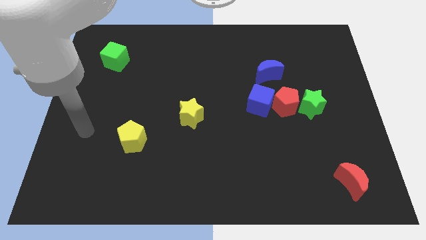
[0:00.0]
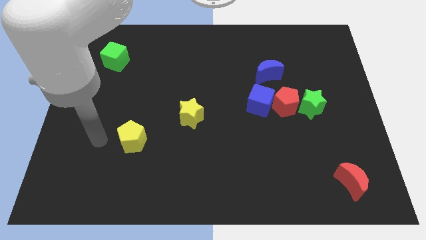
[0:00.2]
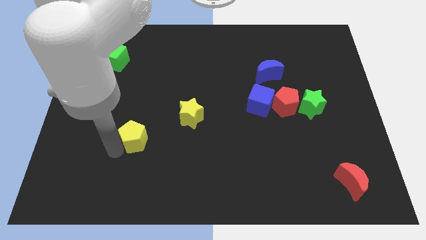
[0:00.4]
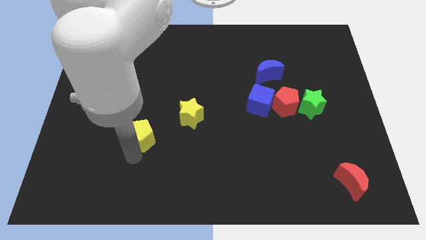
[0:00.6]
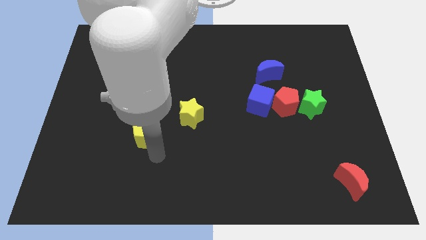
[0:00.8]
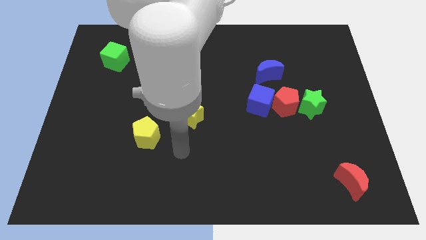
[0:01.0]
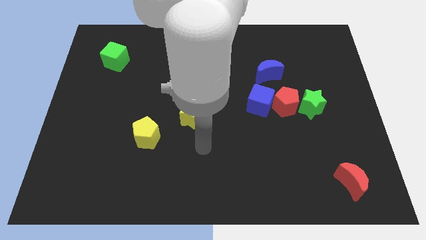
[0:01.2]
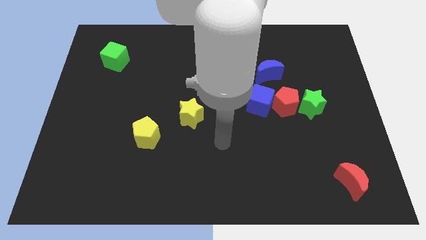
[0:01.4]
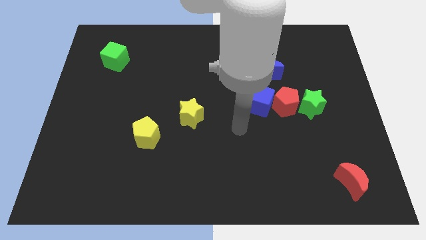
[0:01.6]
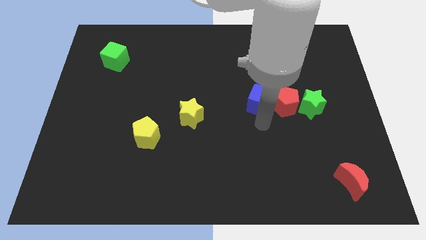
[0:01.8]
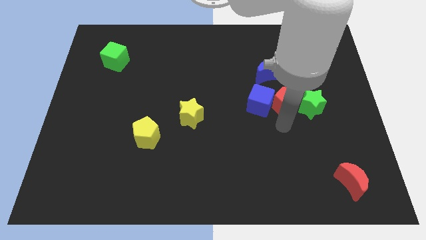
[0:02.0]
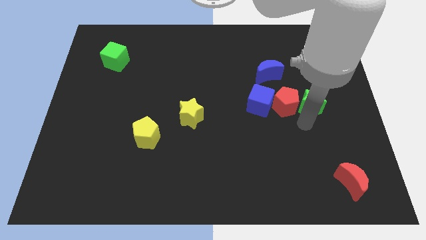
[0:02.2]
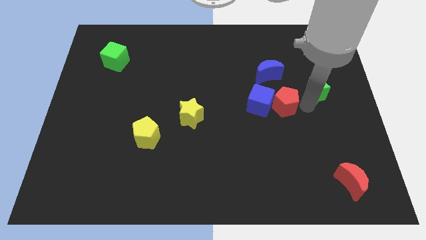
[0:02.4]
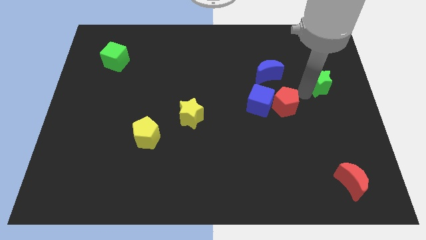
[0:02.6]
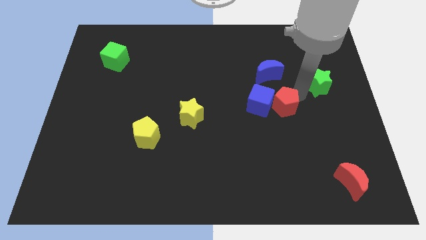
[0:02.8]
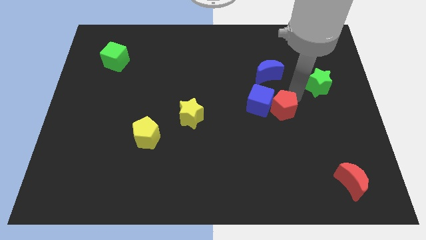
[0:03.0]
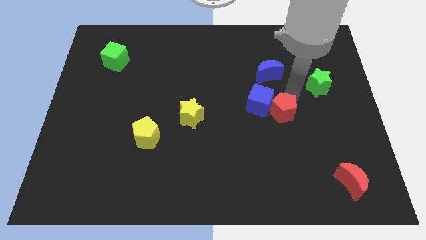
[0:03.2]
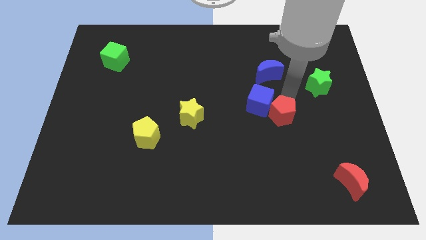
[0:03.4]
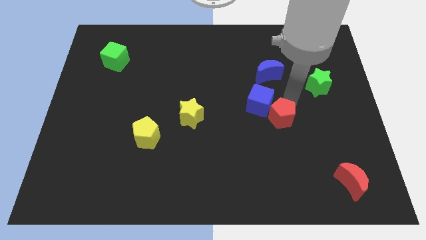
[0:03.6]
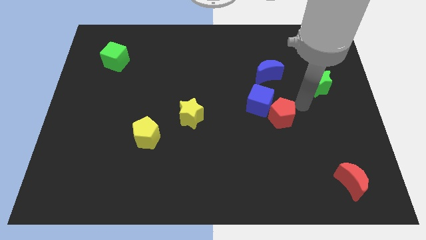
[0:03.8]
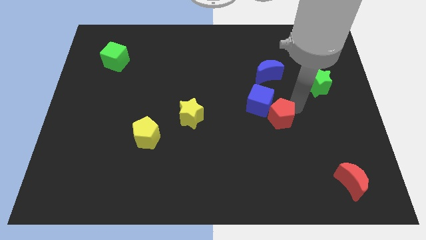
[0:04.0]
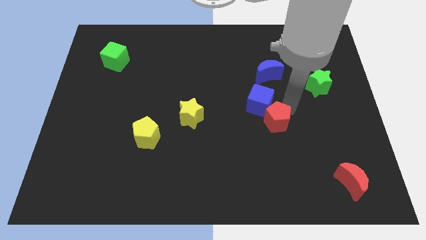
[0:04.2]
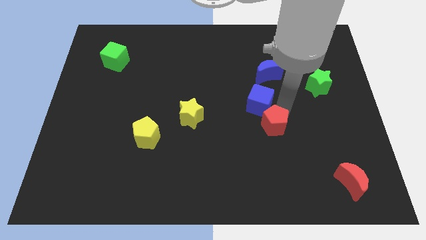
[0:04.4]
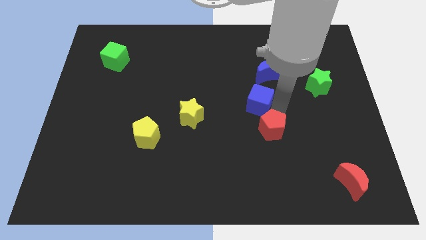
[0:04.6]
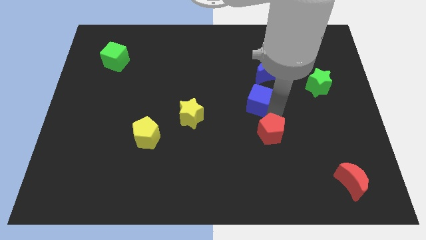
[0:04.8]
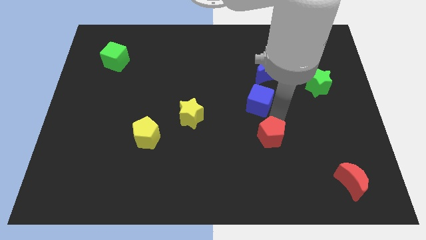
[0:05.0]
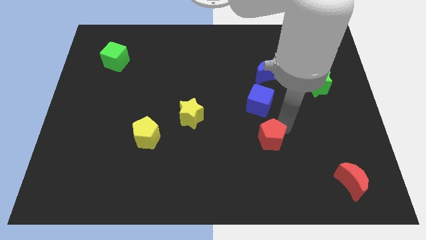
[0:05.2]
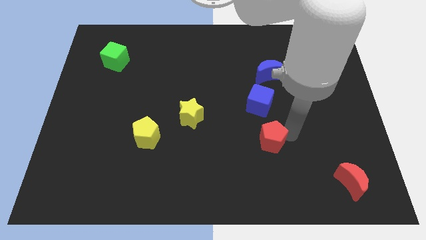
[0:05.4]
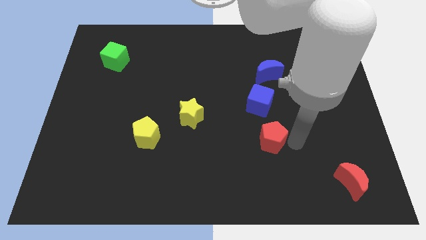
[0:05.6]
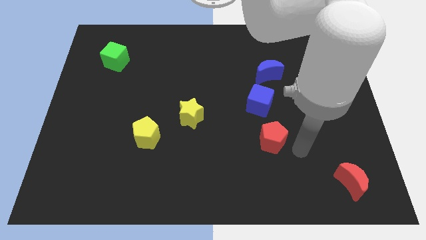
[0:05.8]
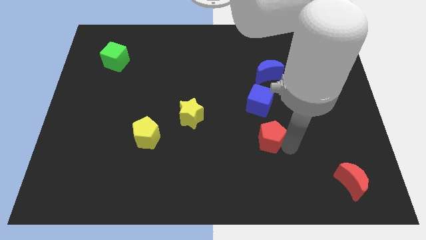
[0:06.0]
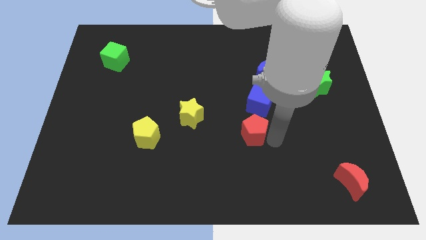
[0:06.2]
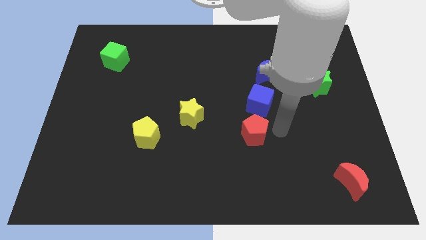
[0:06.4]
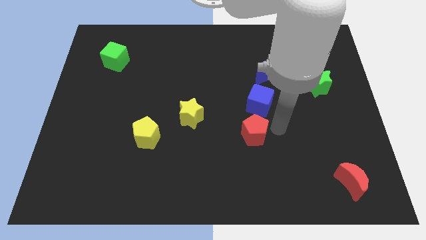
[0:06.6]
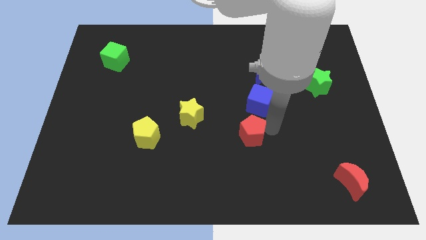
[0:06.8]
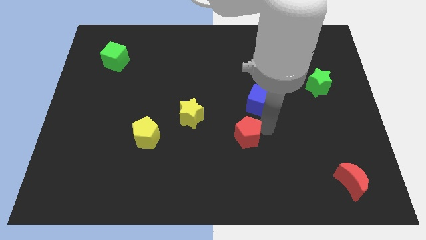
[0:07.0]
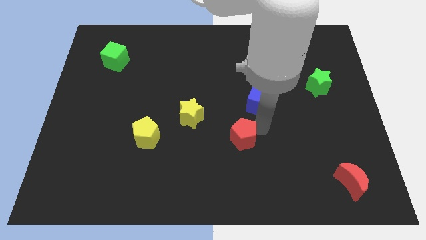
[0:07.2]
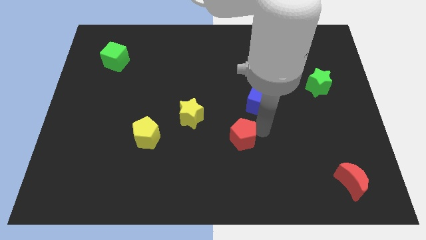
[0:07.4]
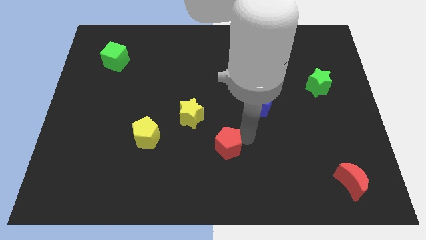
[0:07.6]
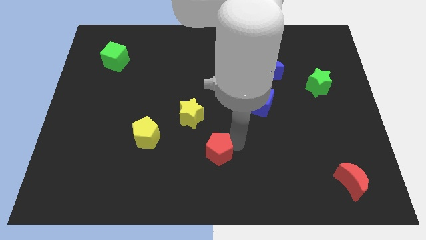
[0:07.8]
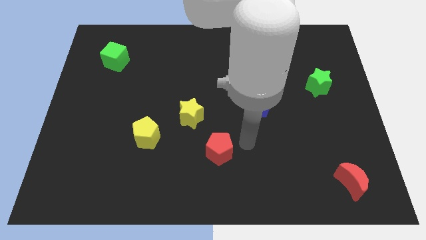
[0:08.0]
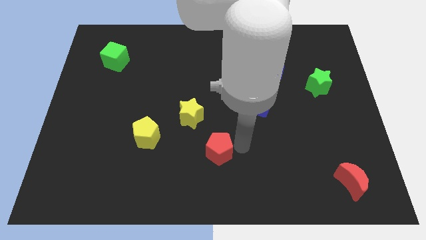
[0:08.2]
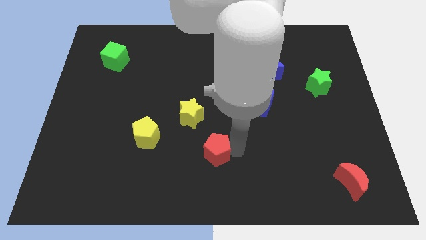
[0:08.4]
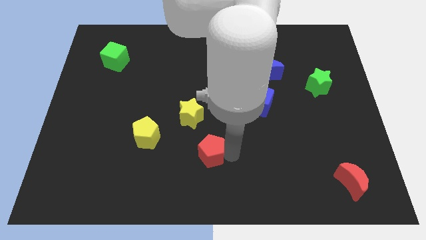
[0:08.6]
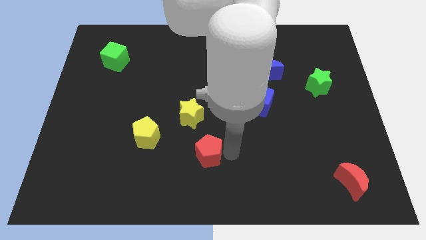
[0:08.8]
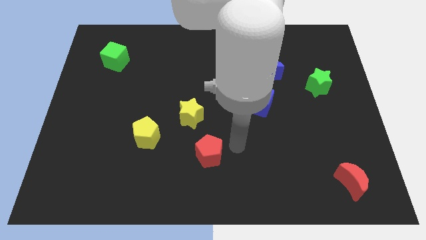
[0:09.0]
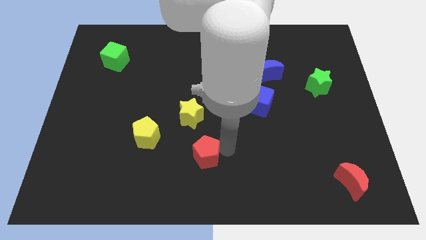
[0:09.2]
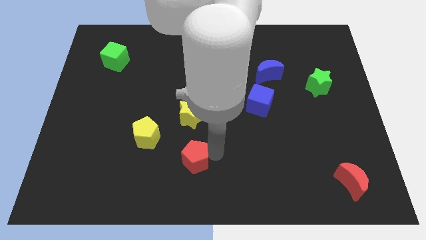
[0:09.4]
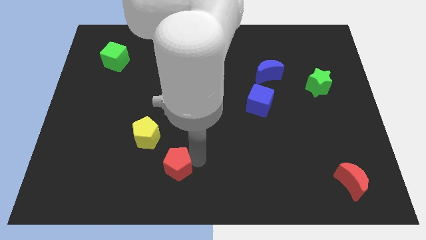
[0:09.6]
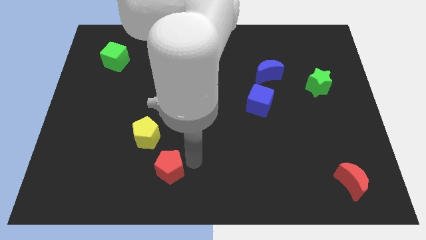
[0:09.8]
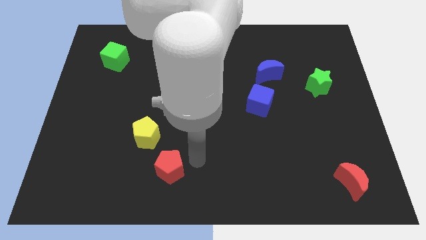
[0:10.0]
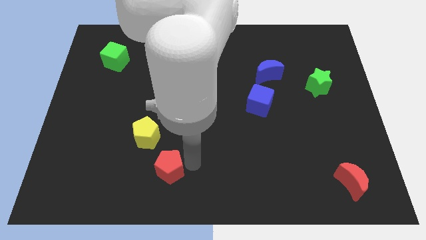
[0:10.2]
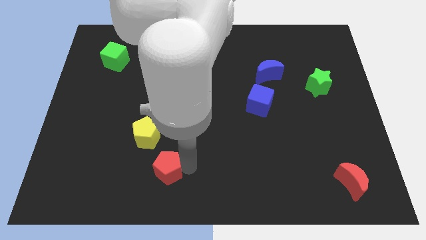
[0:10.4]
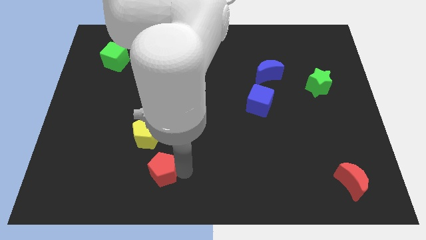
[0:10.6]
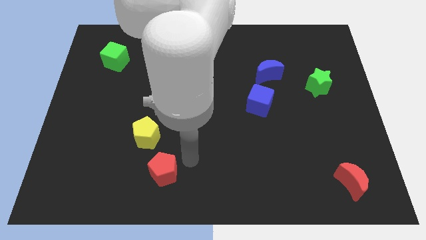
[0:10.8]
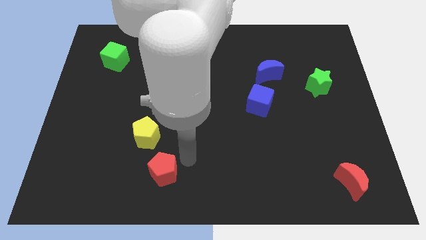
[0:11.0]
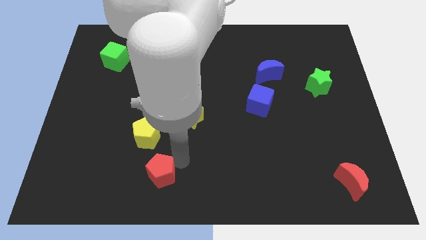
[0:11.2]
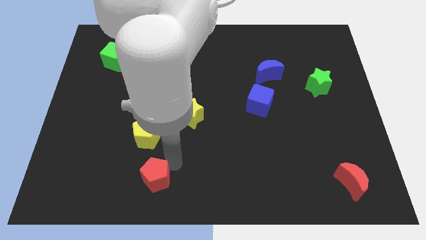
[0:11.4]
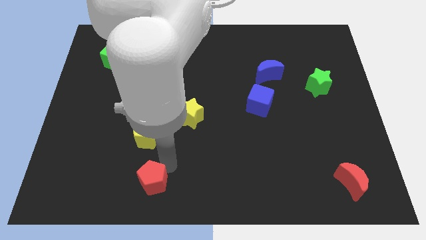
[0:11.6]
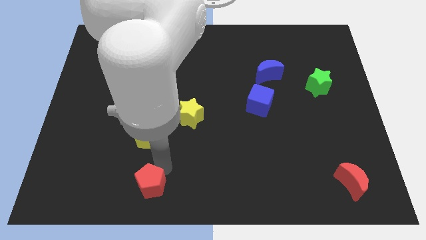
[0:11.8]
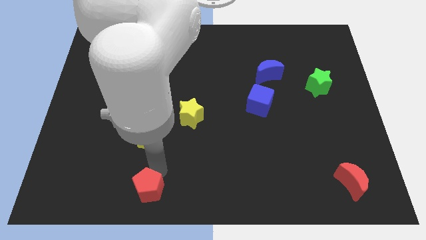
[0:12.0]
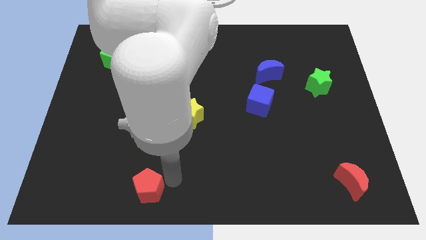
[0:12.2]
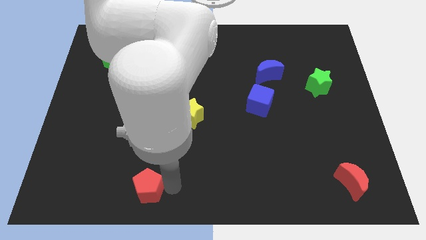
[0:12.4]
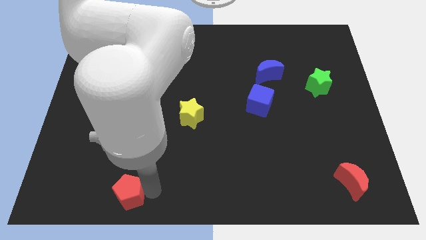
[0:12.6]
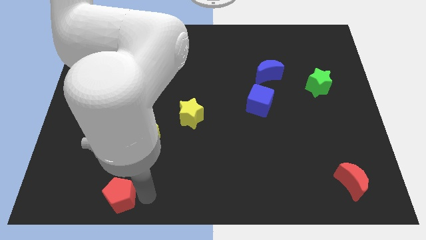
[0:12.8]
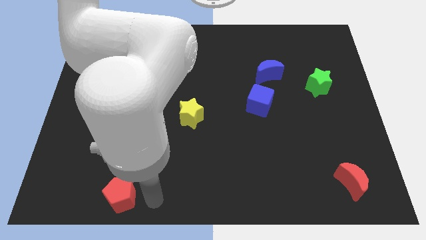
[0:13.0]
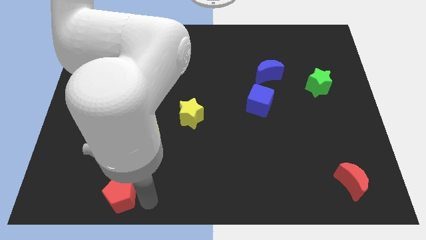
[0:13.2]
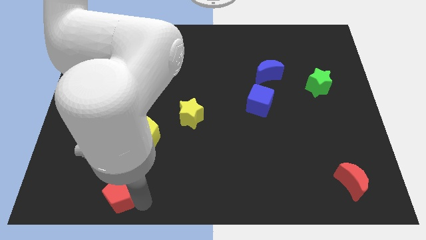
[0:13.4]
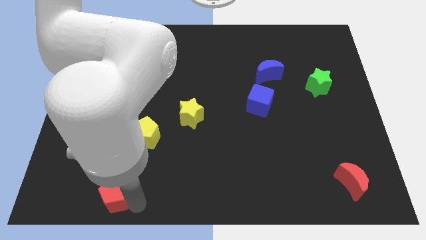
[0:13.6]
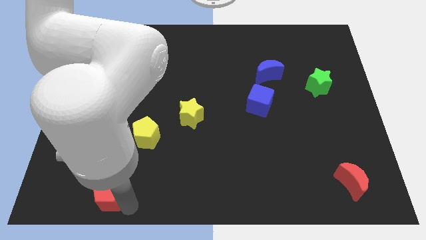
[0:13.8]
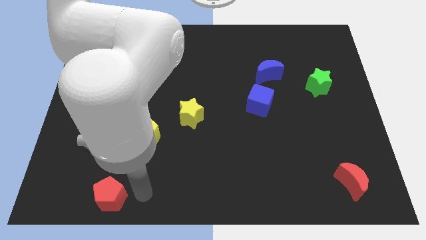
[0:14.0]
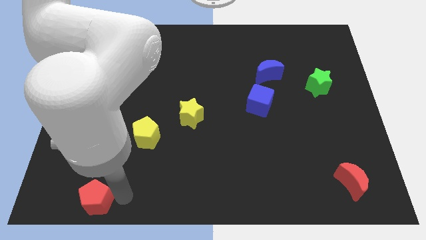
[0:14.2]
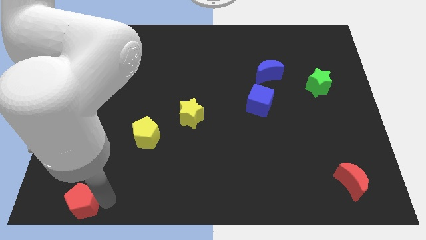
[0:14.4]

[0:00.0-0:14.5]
slide the red pentagon to the lower left corner

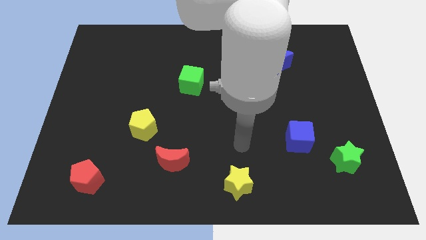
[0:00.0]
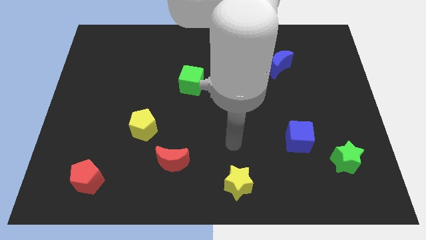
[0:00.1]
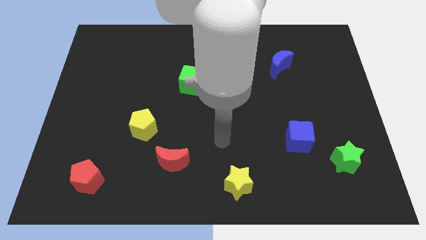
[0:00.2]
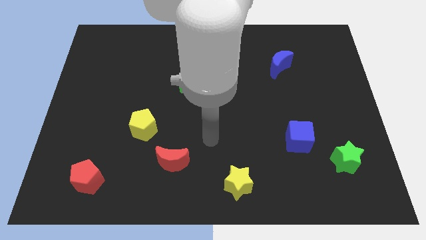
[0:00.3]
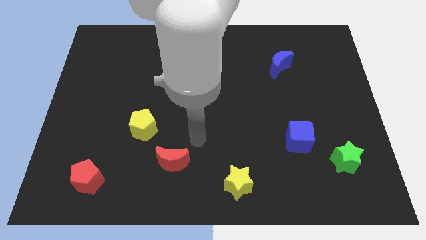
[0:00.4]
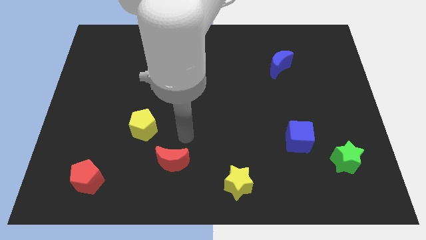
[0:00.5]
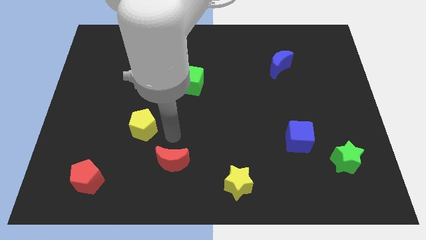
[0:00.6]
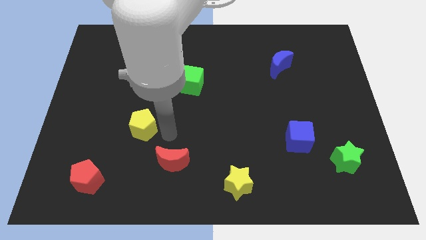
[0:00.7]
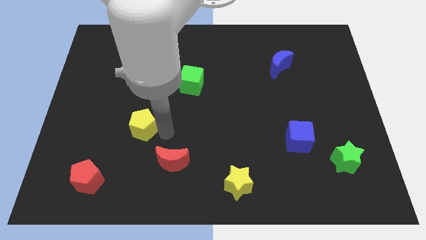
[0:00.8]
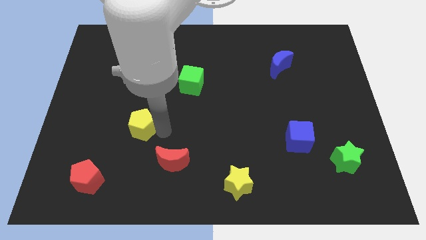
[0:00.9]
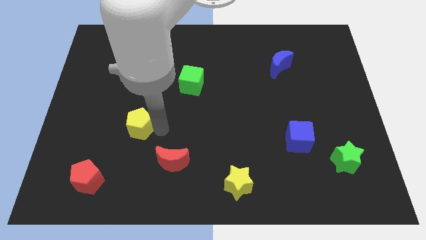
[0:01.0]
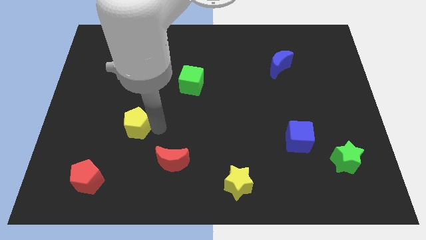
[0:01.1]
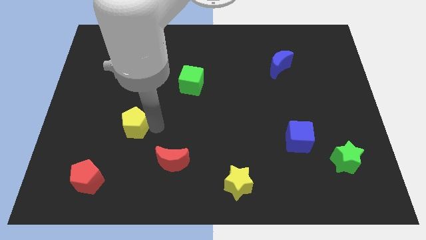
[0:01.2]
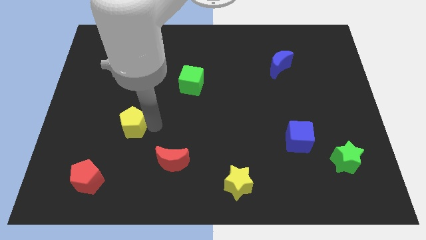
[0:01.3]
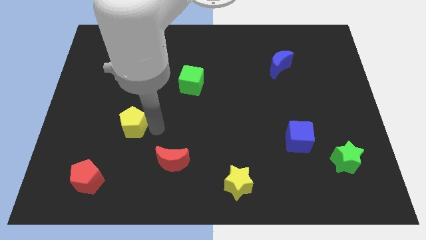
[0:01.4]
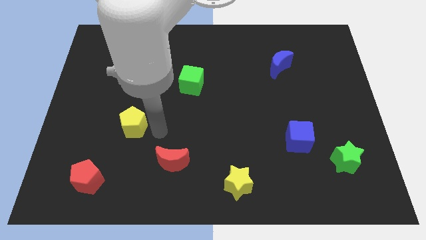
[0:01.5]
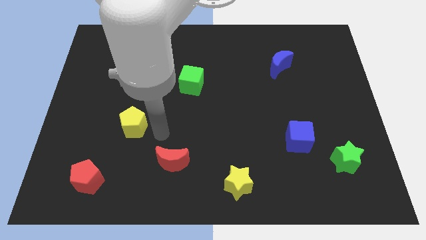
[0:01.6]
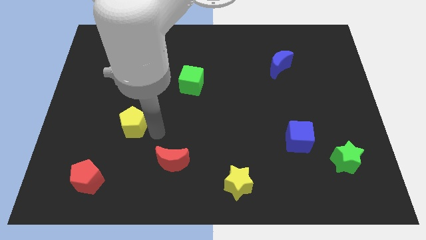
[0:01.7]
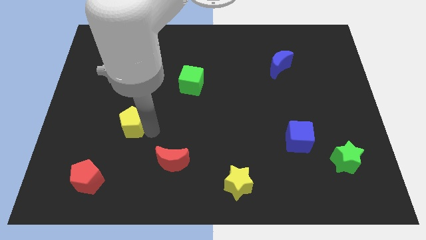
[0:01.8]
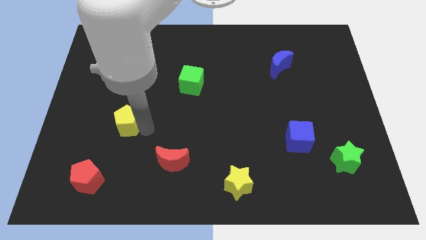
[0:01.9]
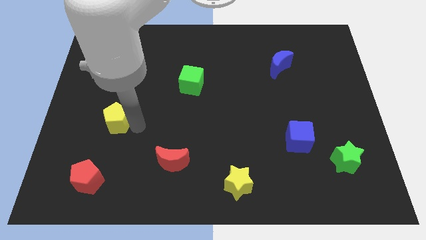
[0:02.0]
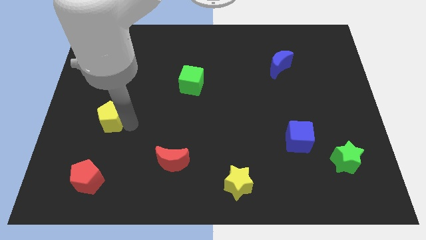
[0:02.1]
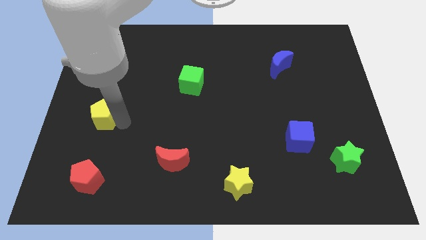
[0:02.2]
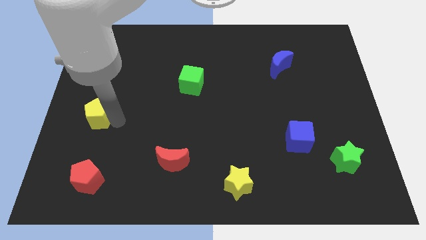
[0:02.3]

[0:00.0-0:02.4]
put the yellow pentagon to the center left
